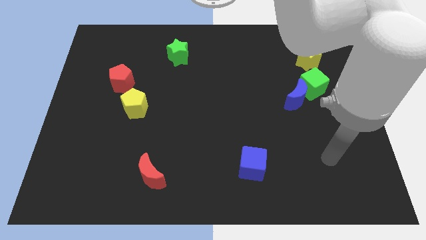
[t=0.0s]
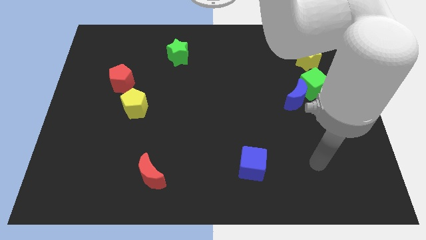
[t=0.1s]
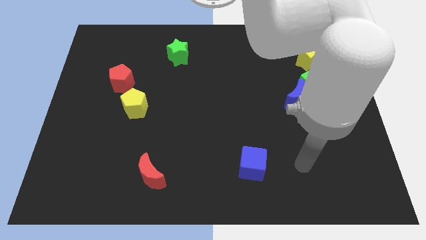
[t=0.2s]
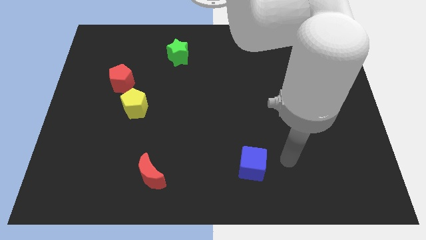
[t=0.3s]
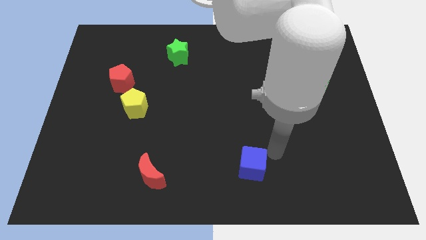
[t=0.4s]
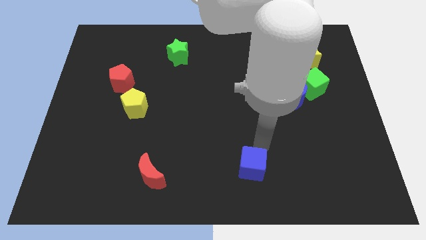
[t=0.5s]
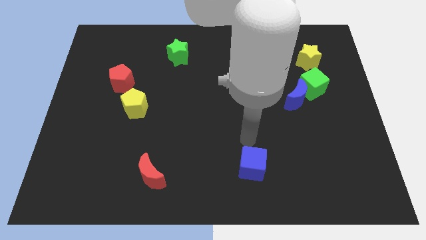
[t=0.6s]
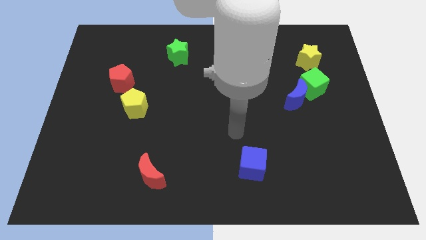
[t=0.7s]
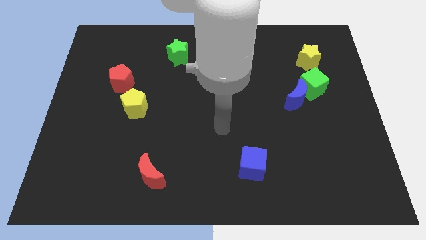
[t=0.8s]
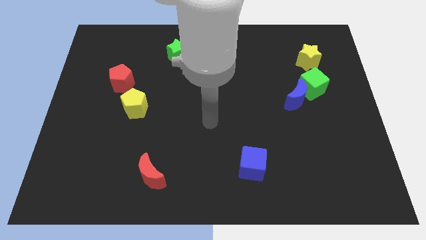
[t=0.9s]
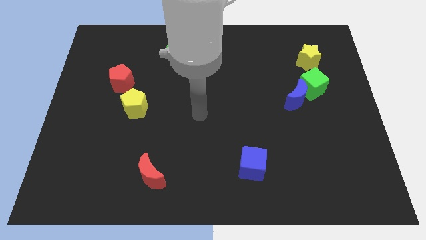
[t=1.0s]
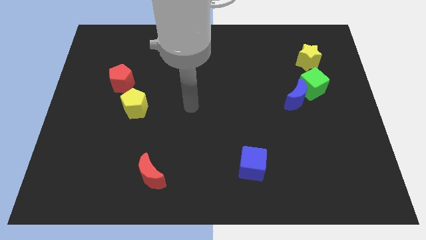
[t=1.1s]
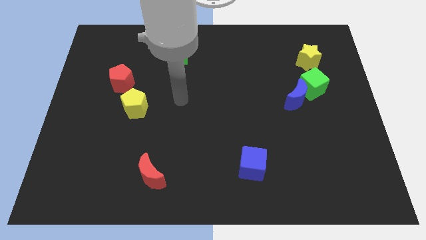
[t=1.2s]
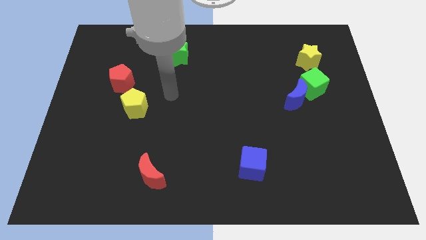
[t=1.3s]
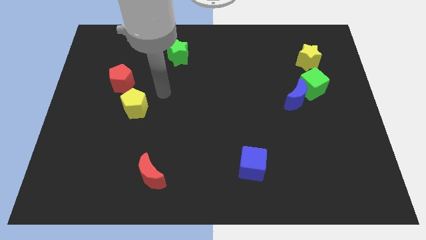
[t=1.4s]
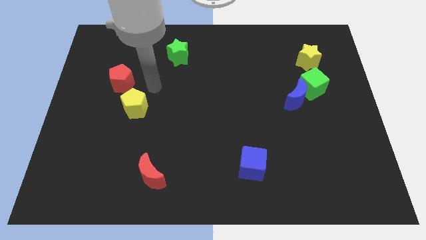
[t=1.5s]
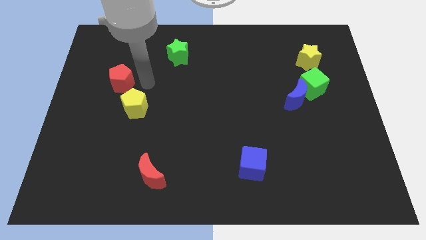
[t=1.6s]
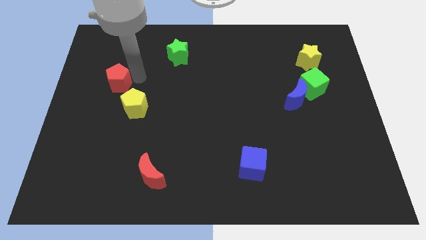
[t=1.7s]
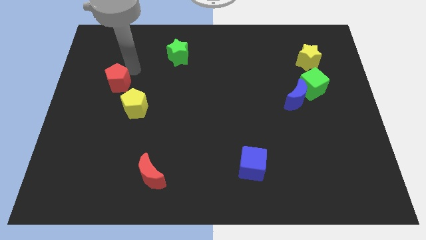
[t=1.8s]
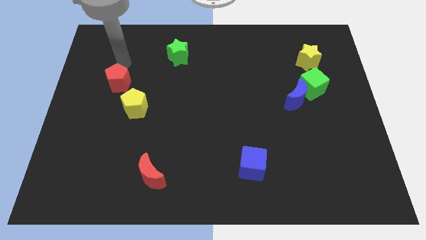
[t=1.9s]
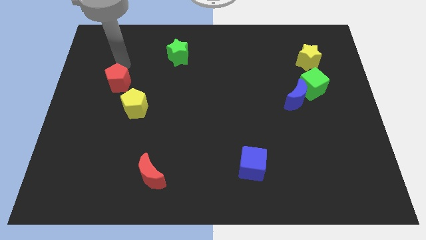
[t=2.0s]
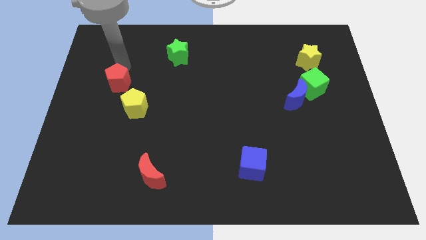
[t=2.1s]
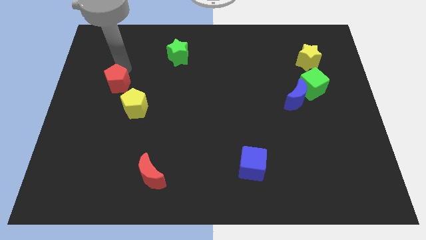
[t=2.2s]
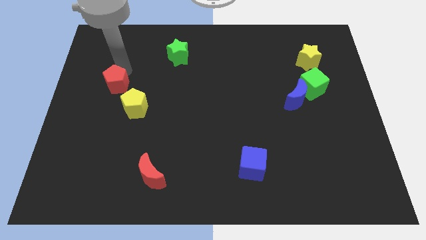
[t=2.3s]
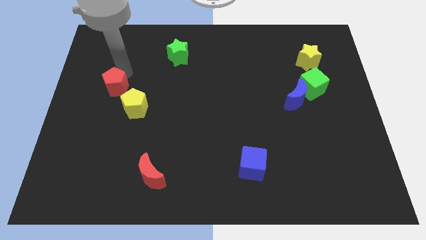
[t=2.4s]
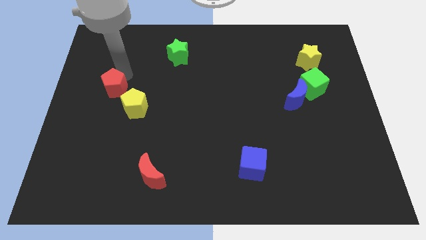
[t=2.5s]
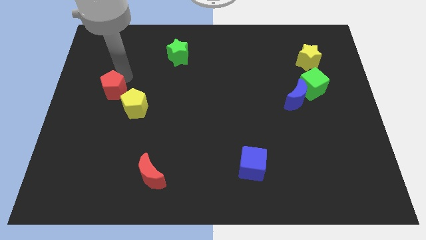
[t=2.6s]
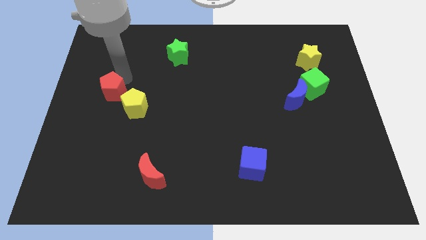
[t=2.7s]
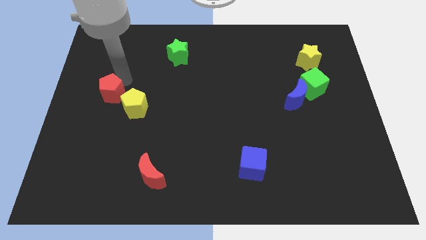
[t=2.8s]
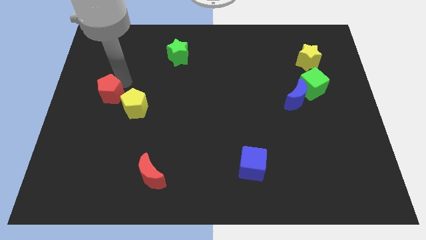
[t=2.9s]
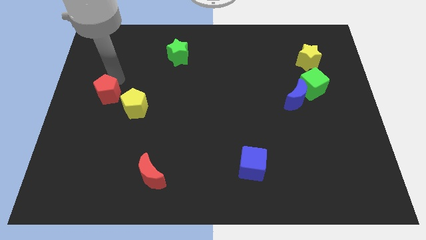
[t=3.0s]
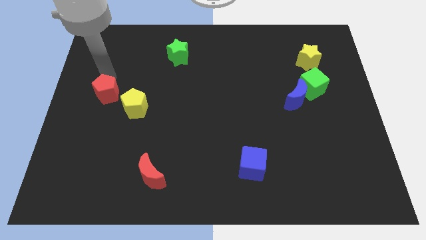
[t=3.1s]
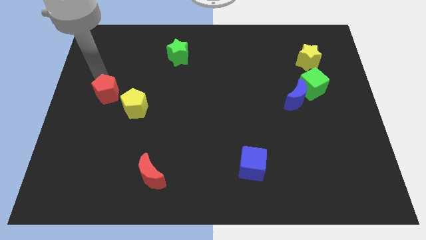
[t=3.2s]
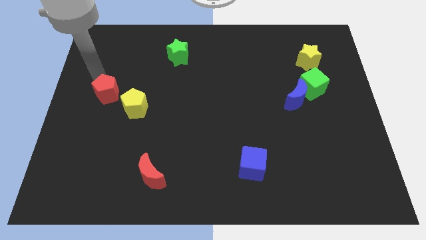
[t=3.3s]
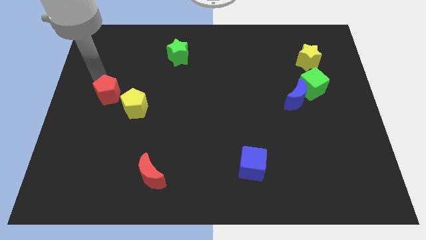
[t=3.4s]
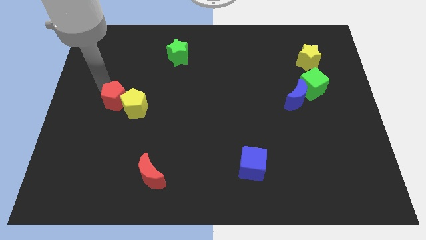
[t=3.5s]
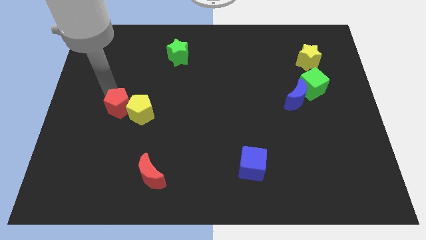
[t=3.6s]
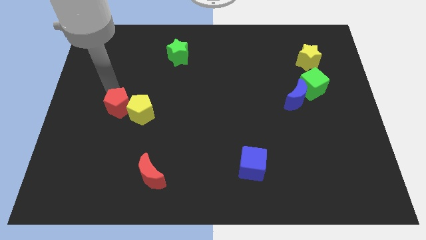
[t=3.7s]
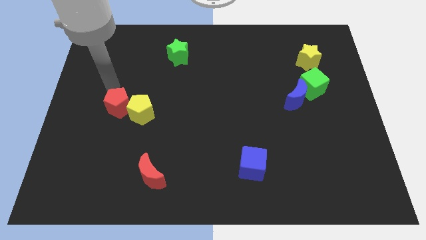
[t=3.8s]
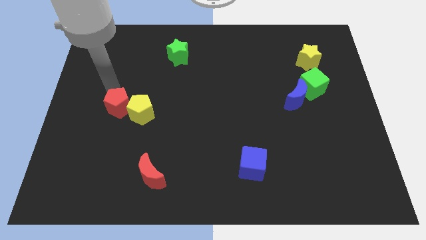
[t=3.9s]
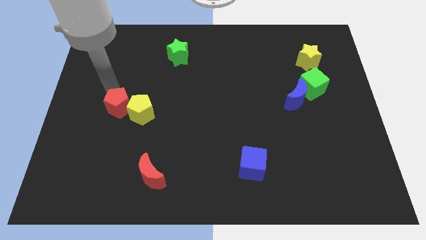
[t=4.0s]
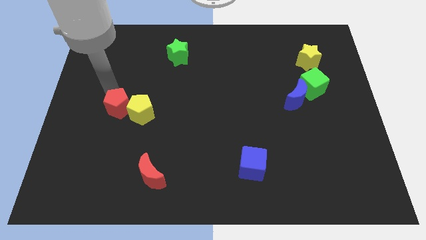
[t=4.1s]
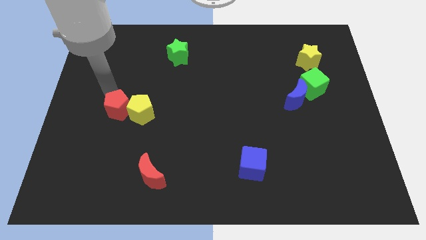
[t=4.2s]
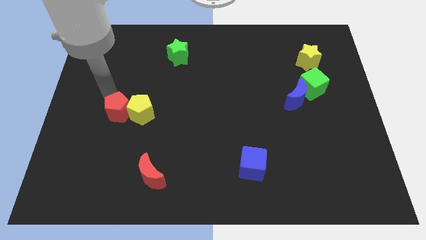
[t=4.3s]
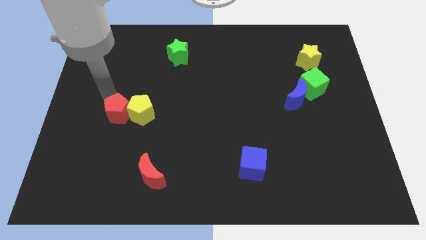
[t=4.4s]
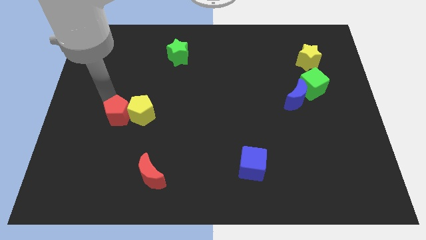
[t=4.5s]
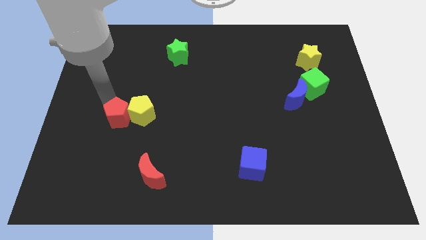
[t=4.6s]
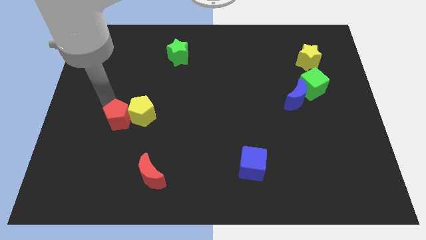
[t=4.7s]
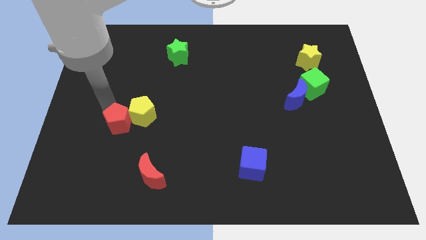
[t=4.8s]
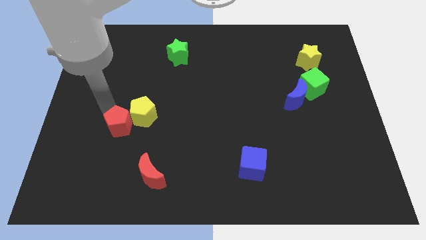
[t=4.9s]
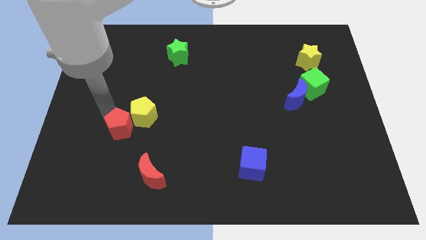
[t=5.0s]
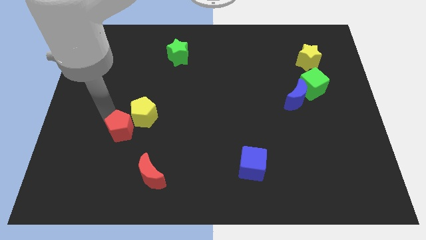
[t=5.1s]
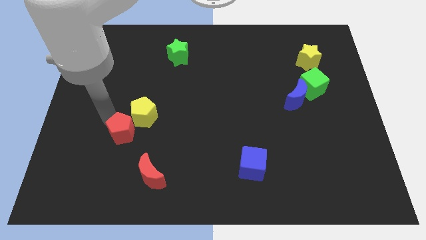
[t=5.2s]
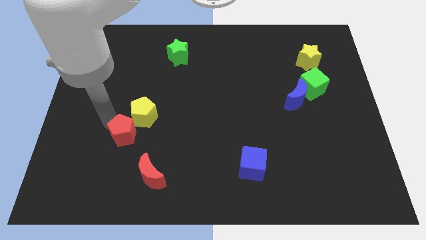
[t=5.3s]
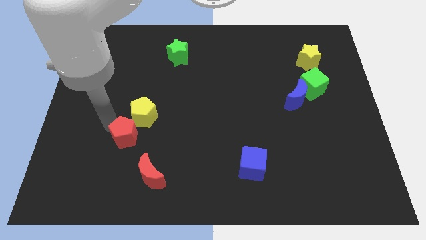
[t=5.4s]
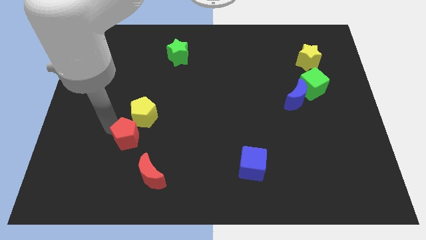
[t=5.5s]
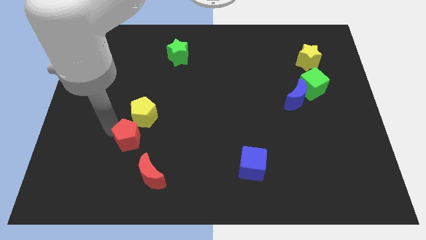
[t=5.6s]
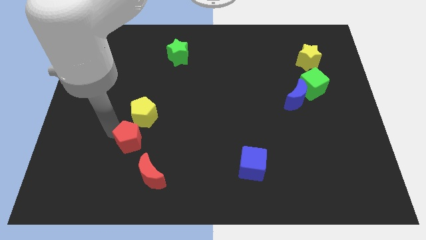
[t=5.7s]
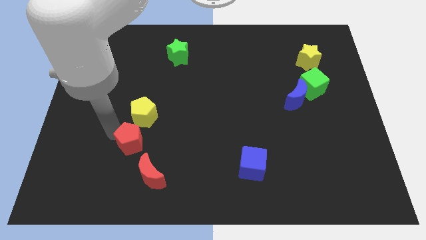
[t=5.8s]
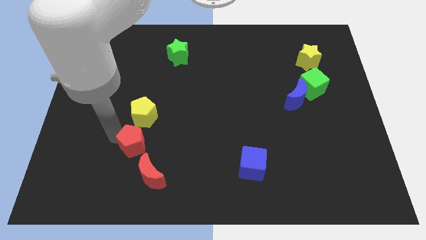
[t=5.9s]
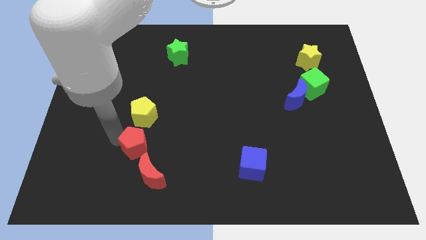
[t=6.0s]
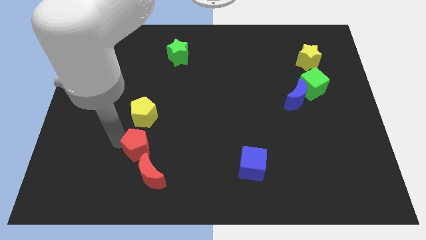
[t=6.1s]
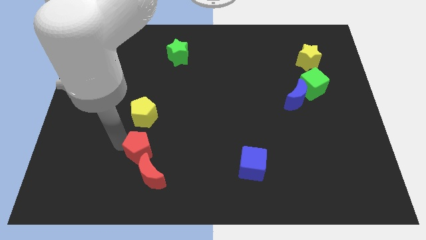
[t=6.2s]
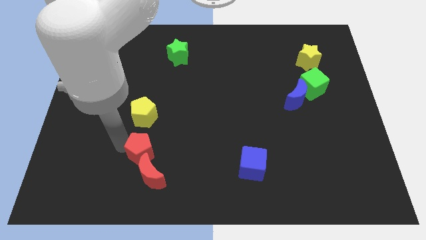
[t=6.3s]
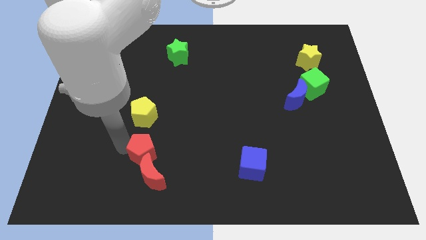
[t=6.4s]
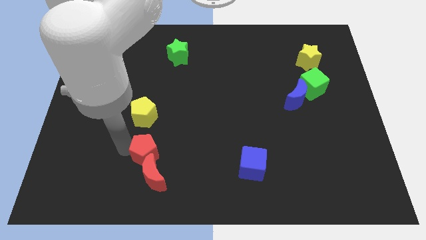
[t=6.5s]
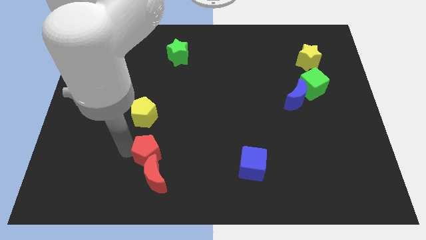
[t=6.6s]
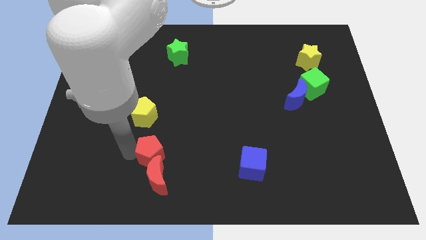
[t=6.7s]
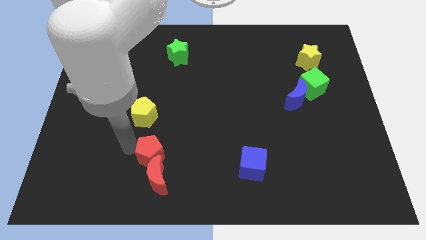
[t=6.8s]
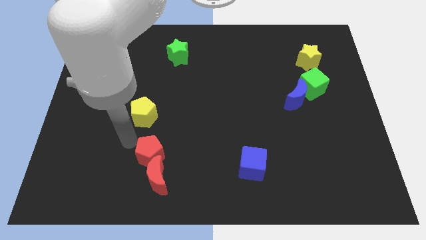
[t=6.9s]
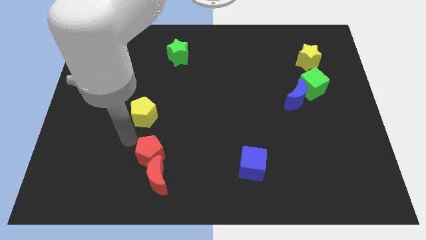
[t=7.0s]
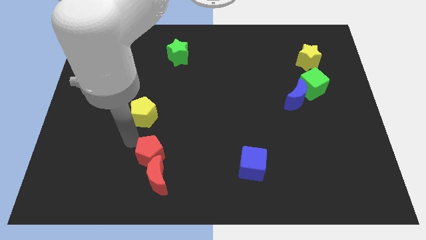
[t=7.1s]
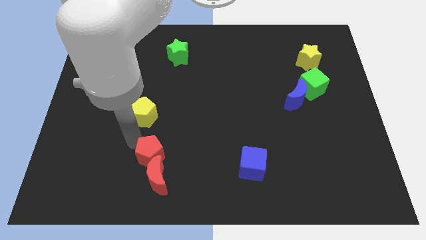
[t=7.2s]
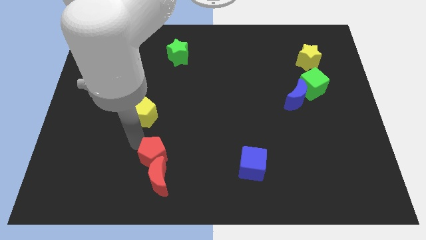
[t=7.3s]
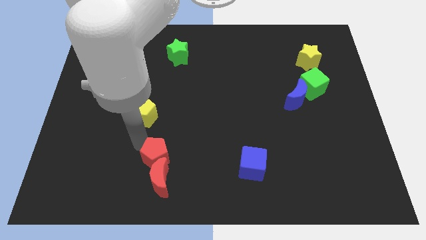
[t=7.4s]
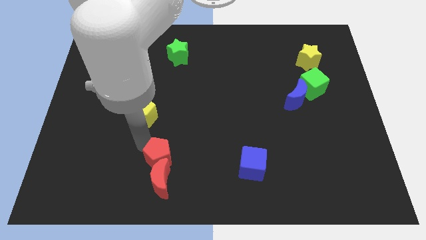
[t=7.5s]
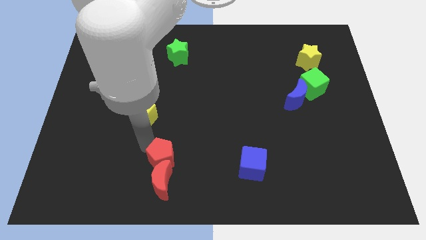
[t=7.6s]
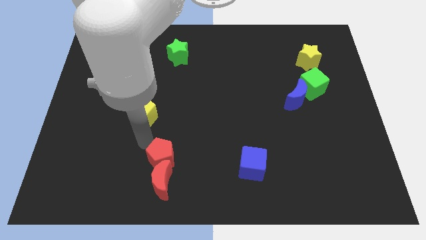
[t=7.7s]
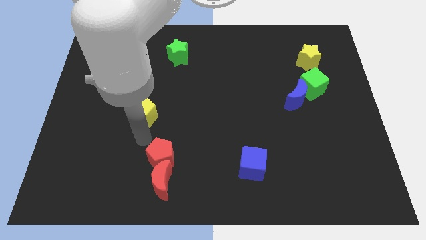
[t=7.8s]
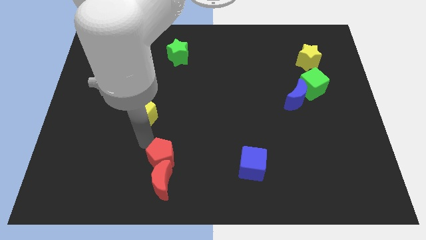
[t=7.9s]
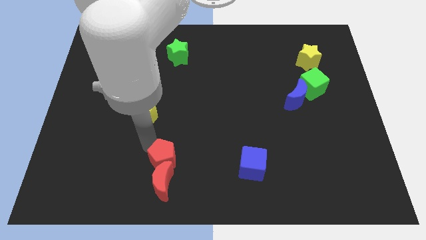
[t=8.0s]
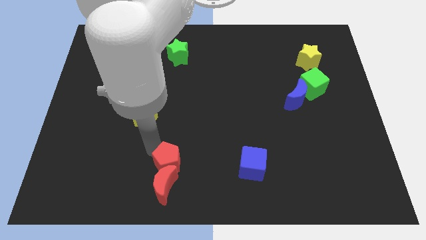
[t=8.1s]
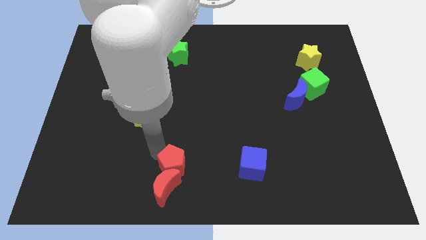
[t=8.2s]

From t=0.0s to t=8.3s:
put the red pentagon to the bottom side
